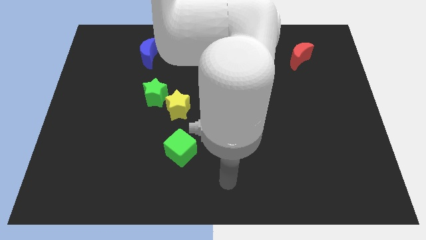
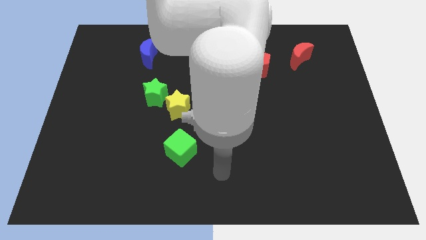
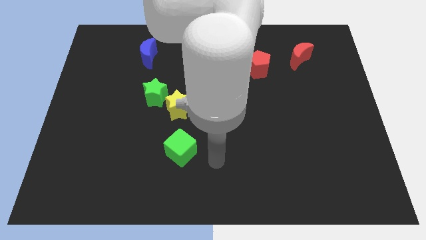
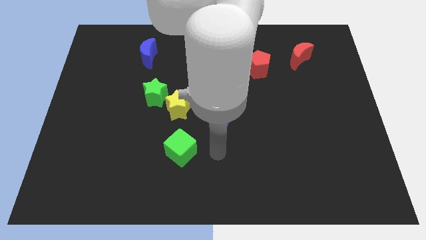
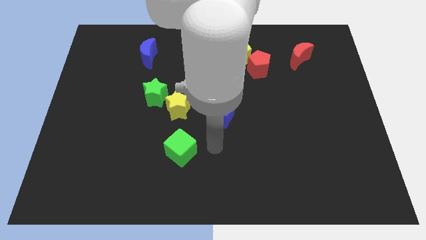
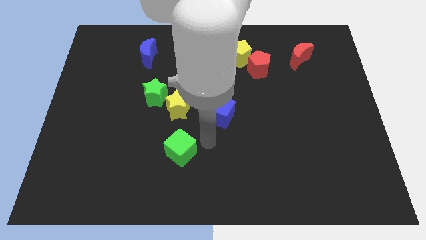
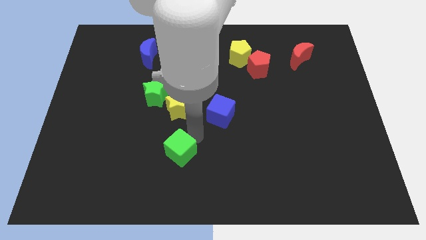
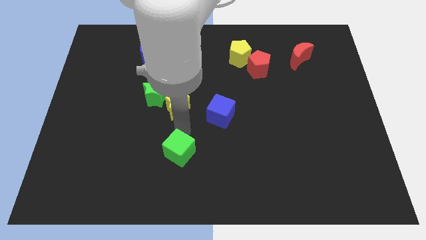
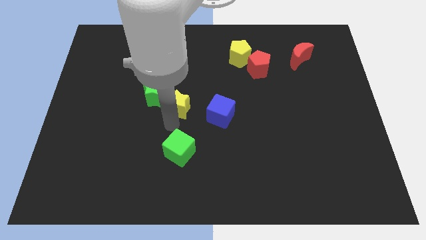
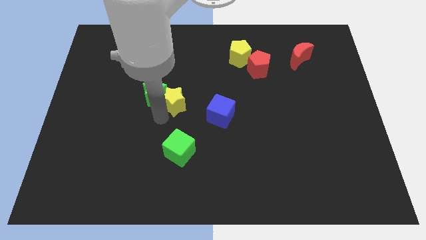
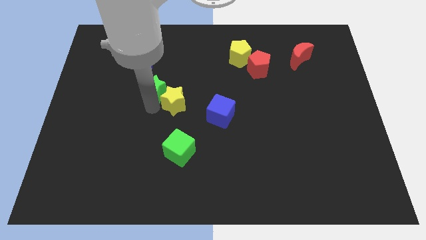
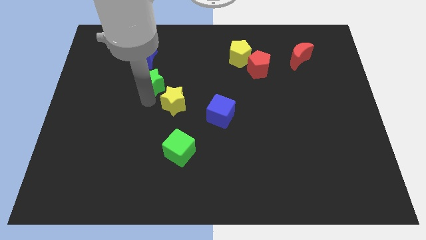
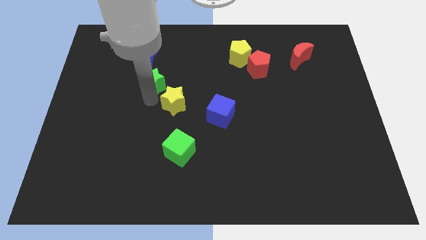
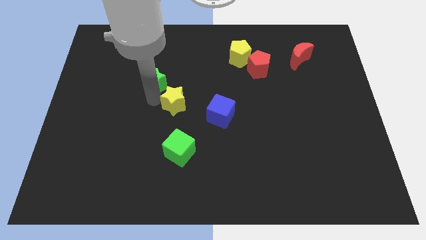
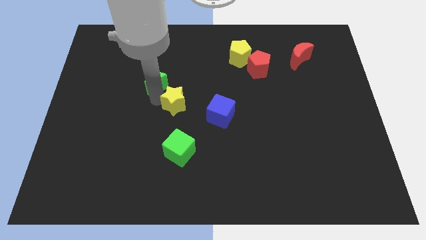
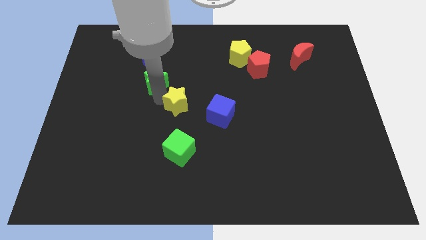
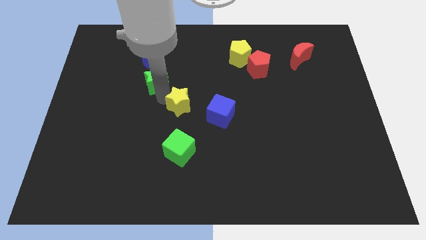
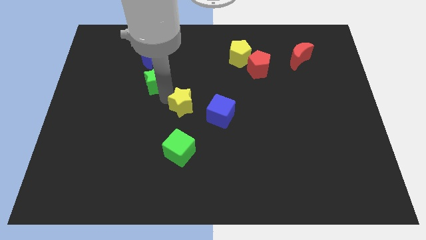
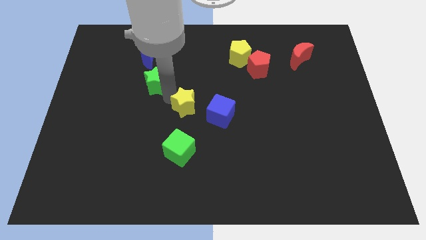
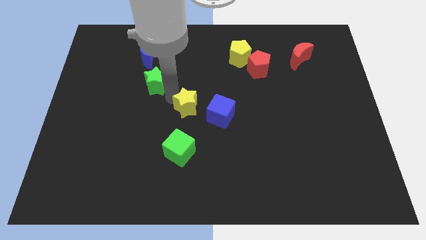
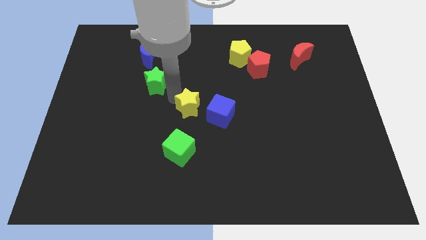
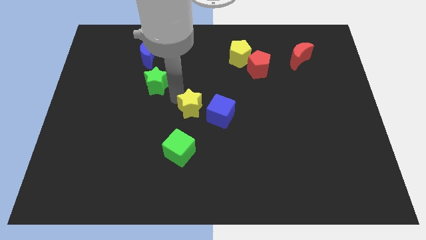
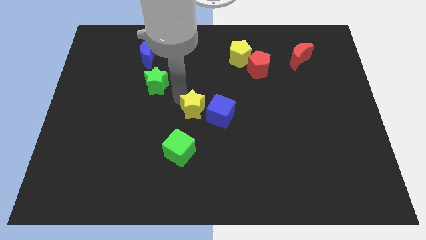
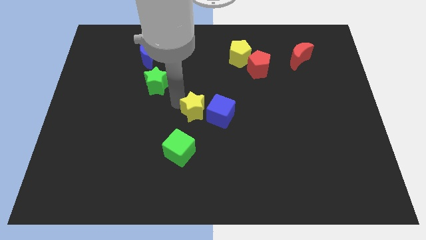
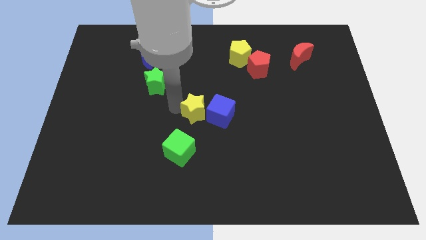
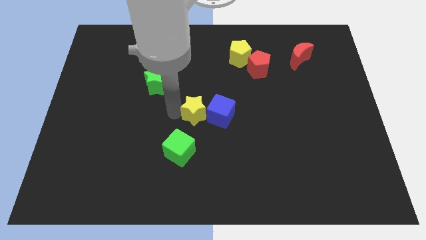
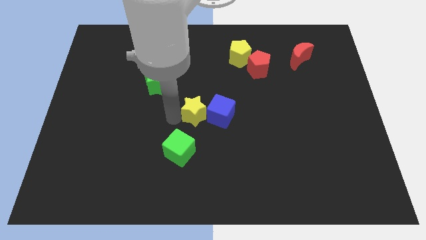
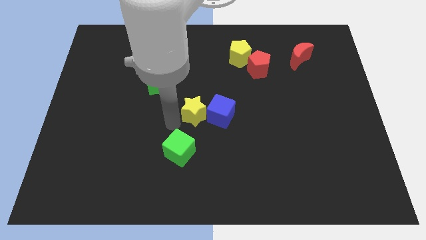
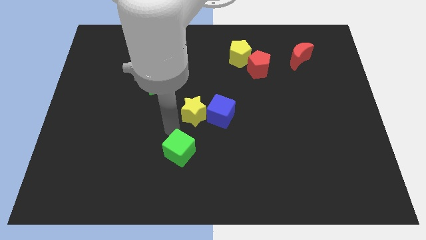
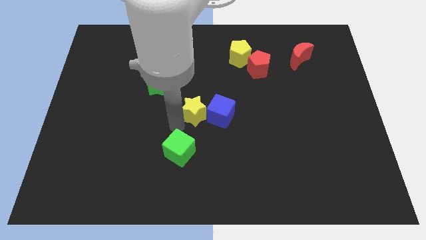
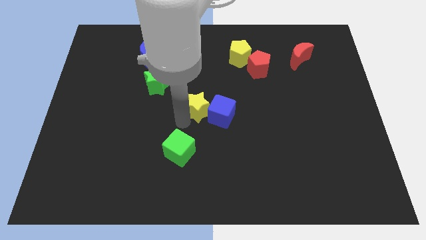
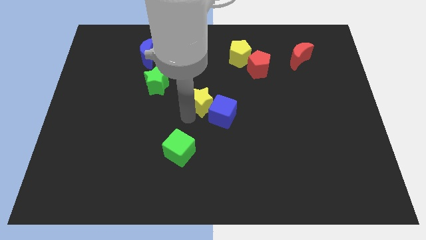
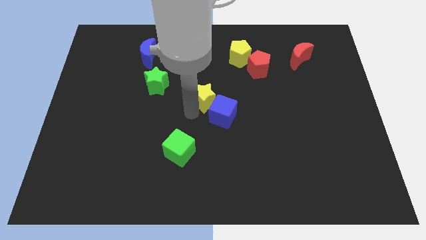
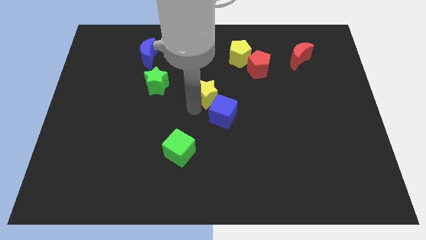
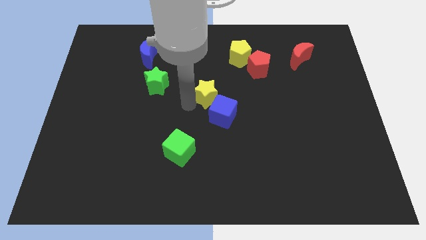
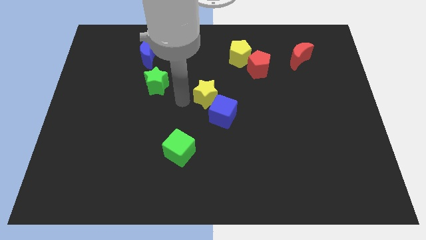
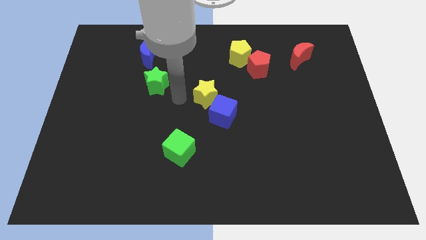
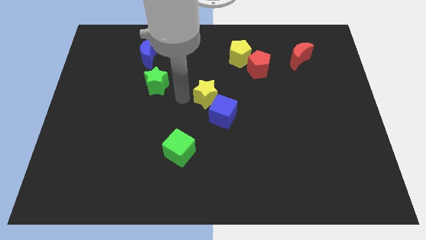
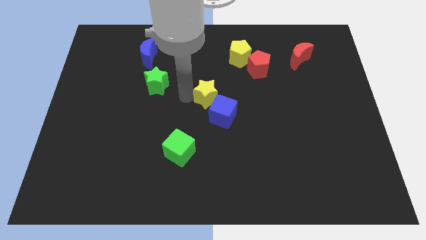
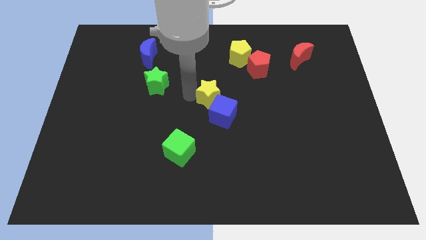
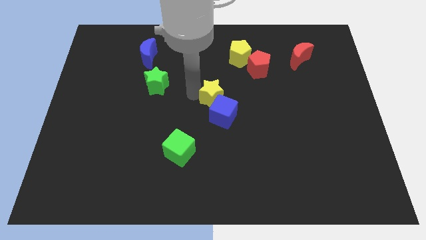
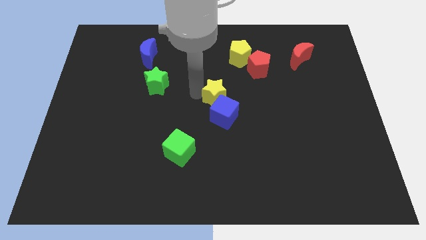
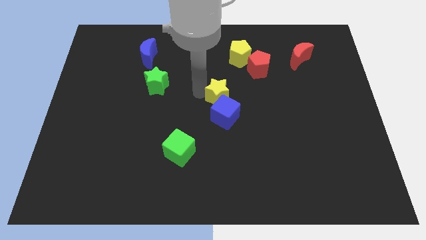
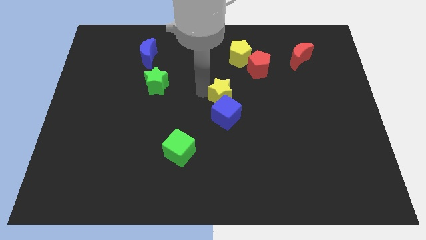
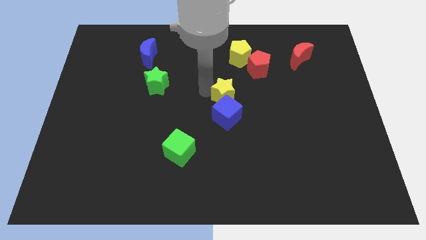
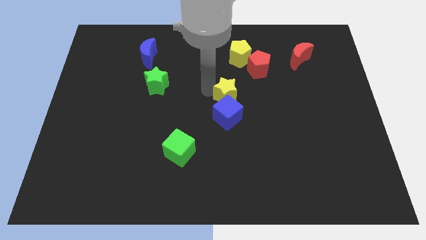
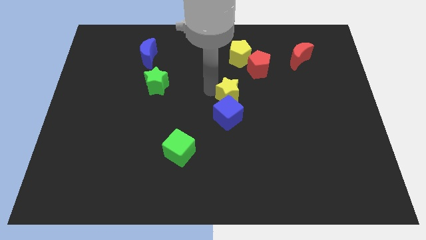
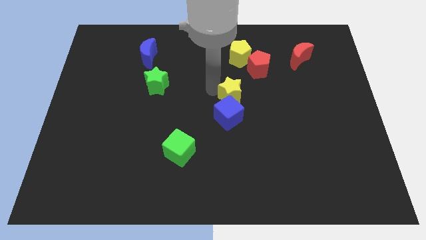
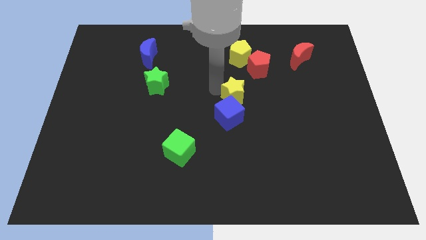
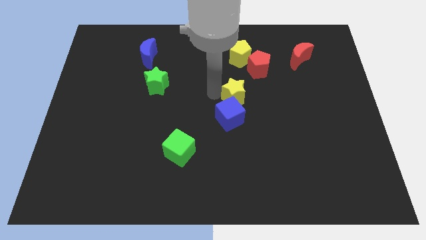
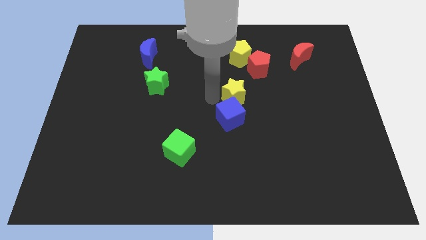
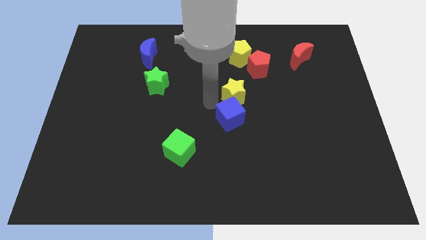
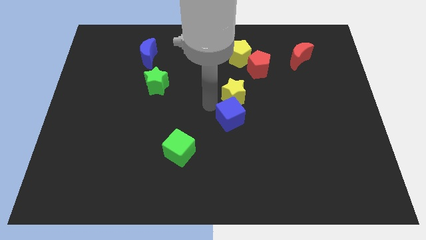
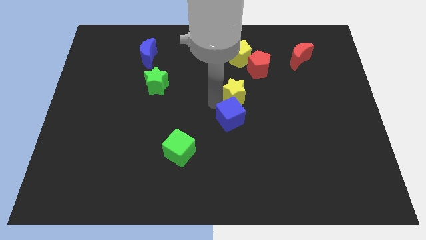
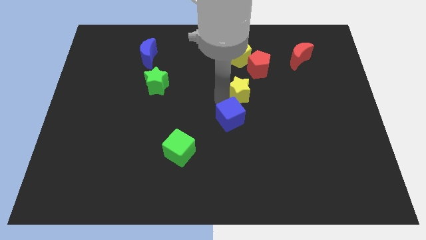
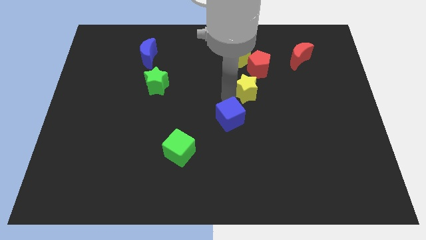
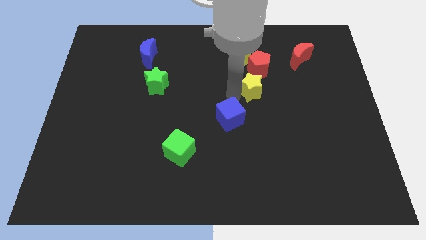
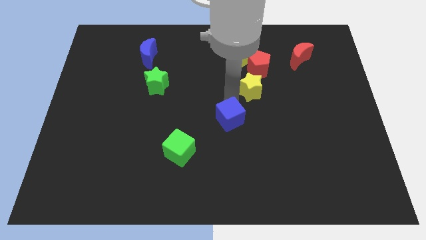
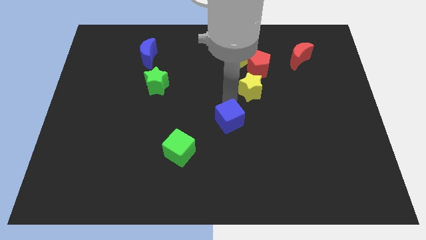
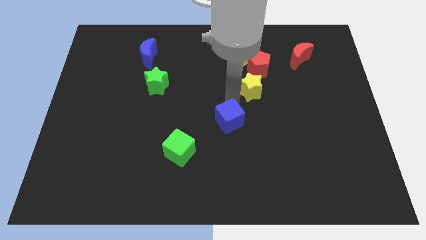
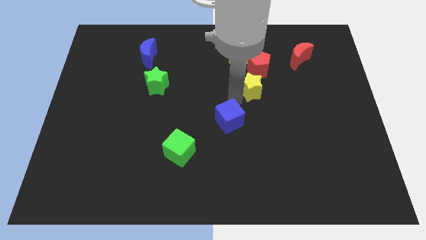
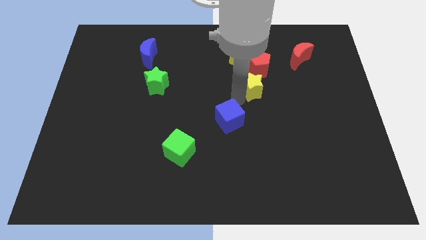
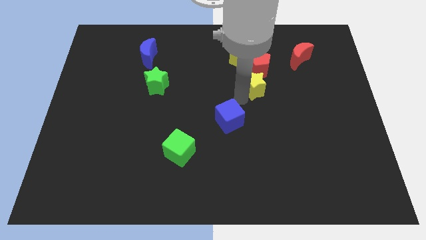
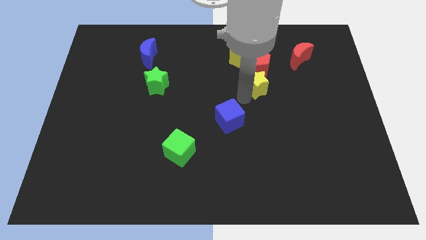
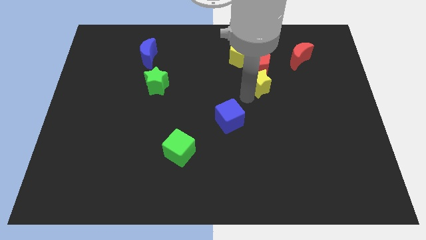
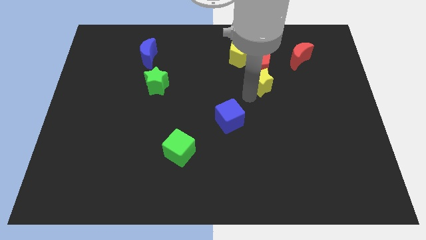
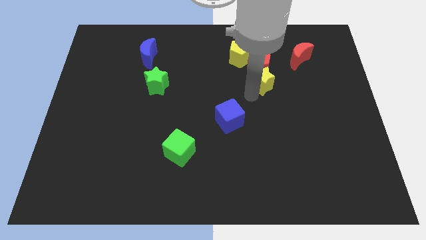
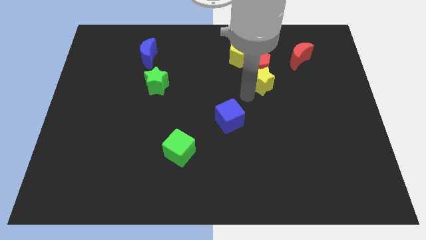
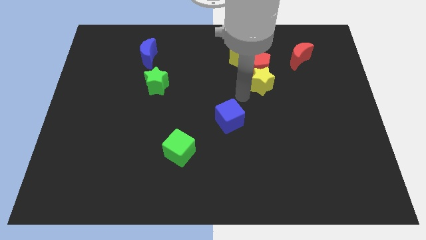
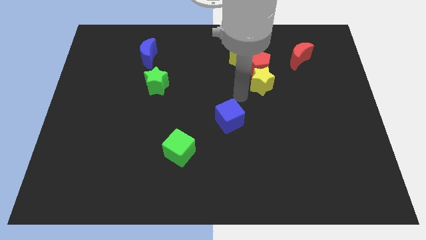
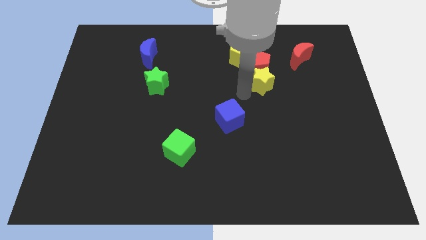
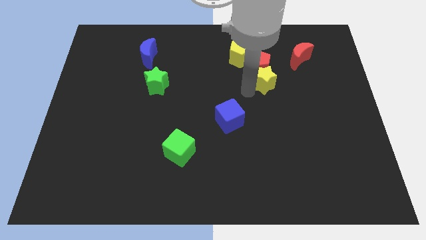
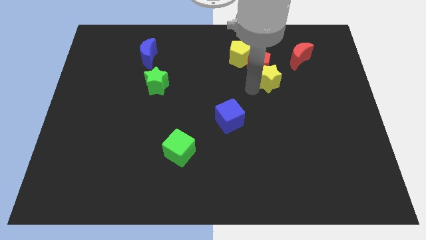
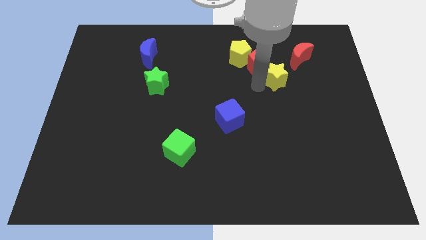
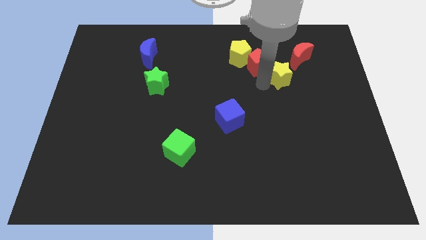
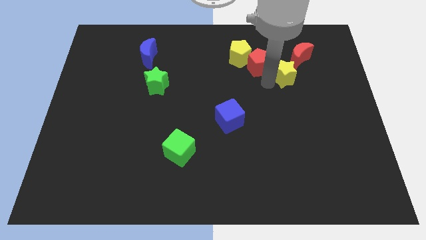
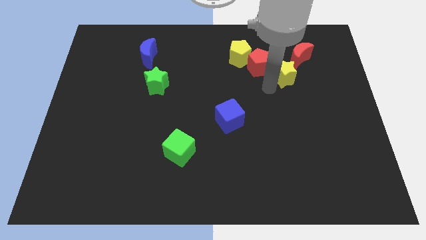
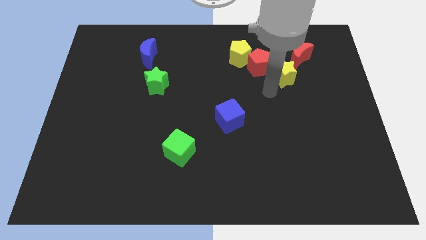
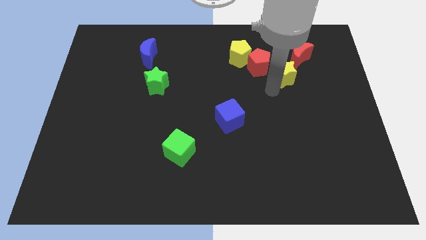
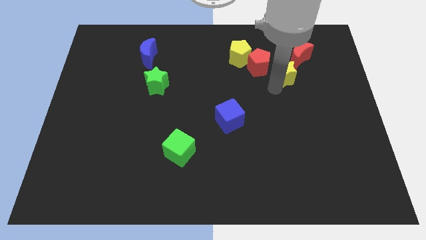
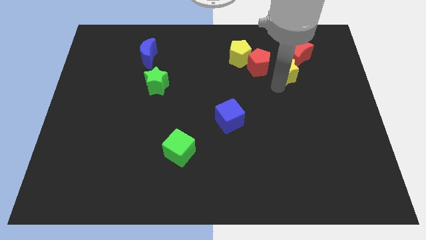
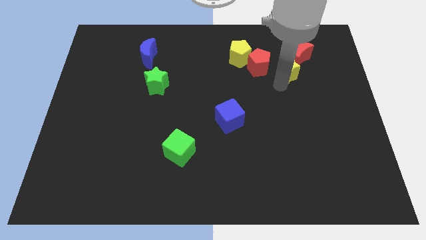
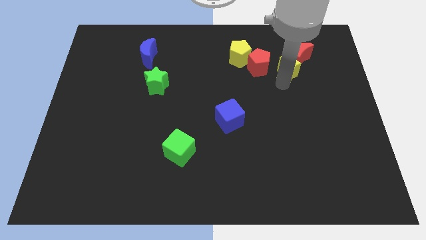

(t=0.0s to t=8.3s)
put the yellow star close to the red moon
